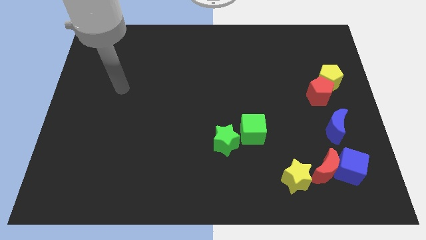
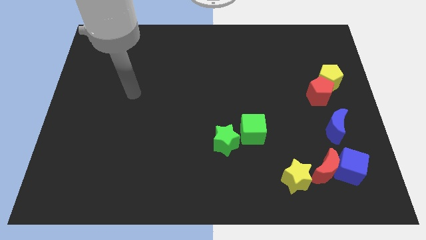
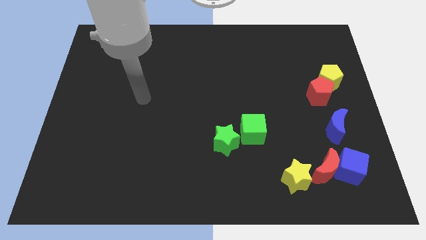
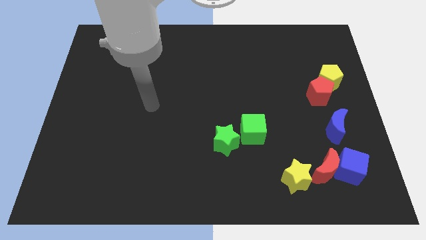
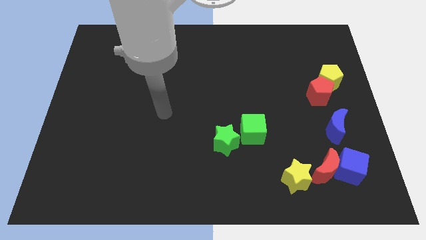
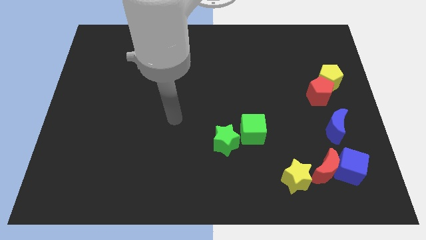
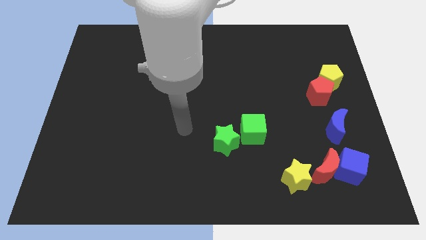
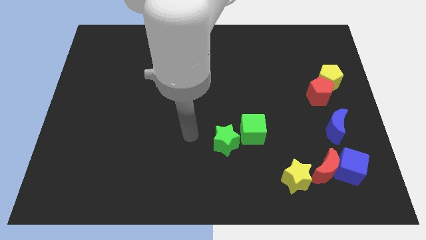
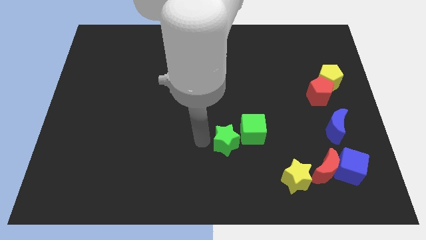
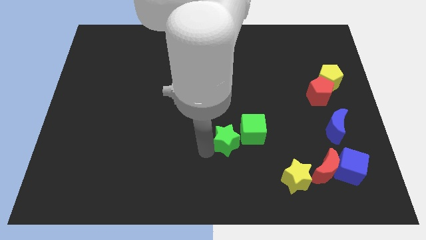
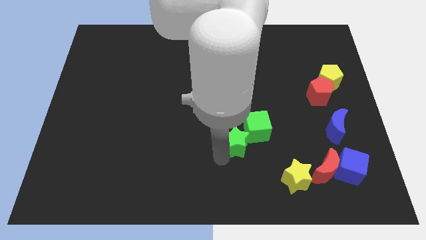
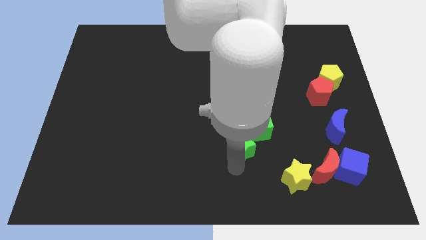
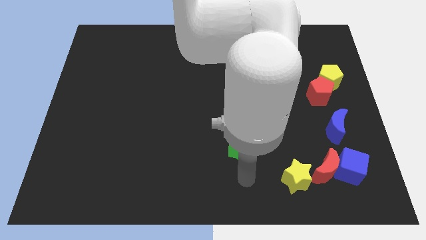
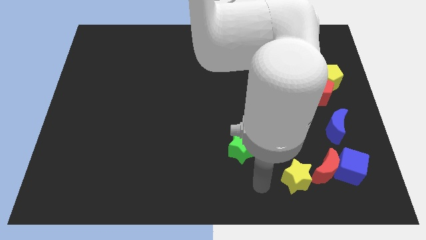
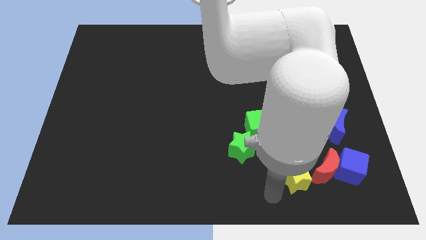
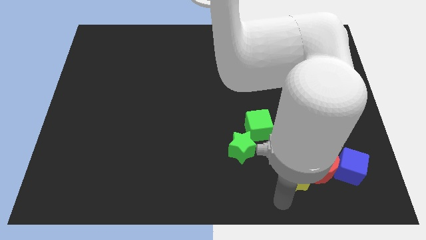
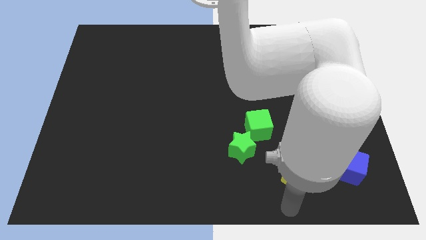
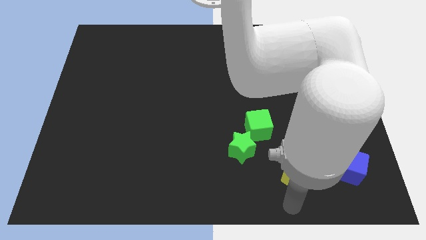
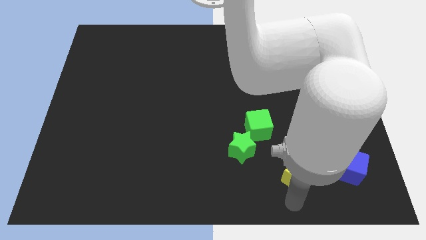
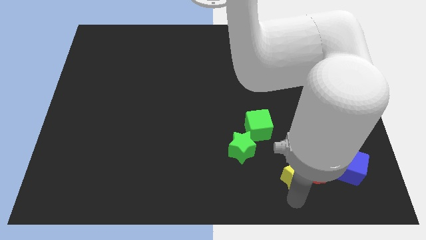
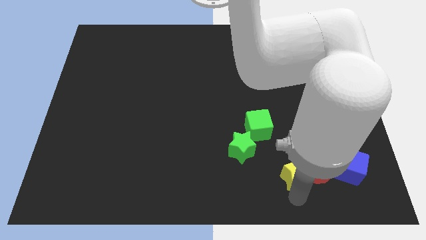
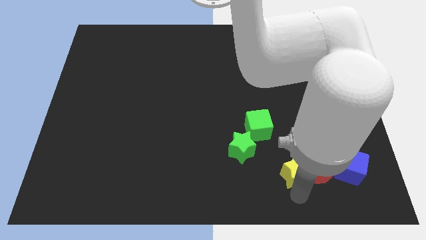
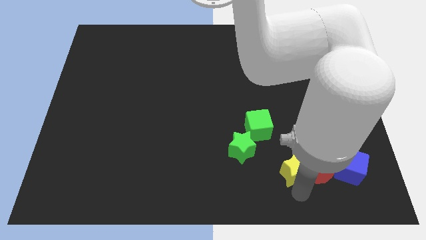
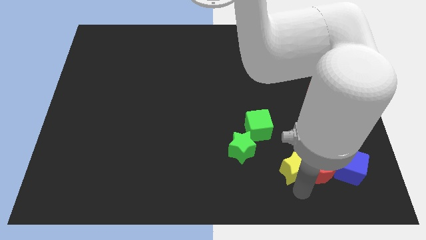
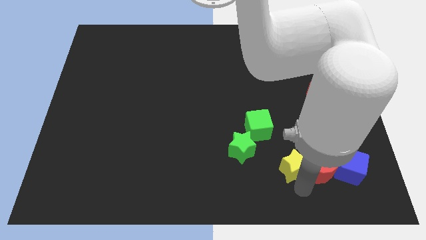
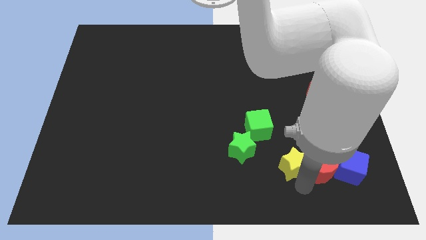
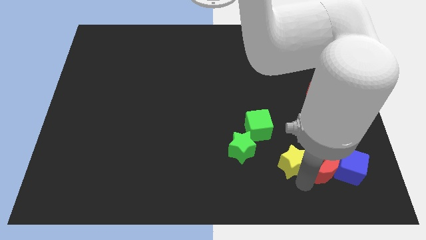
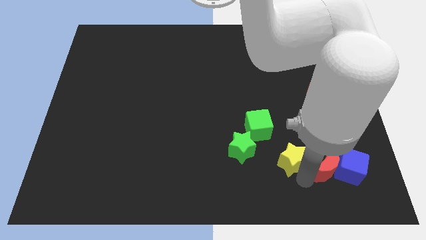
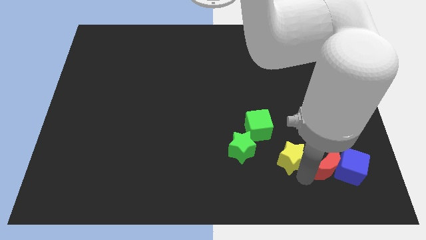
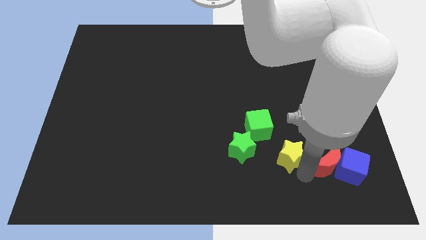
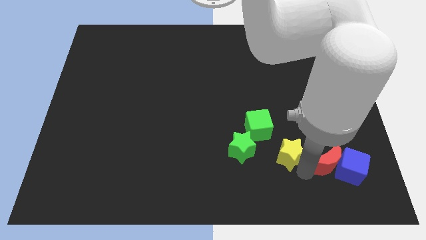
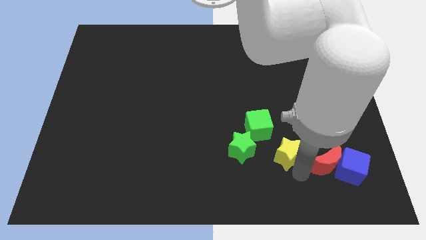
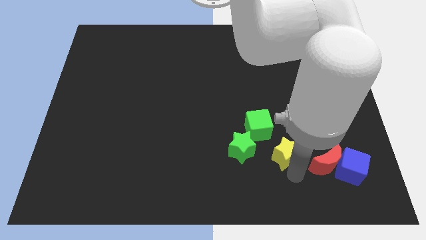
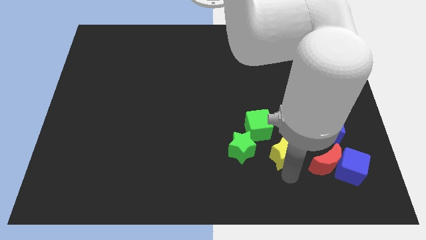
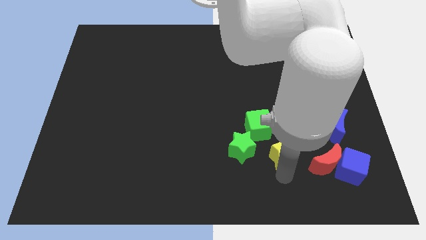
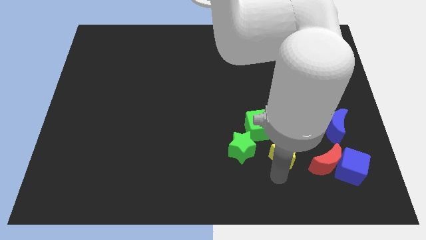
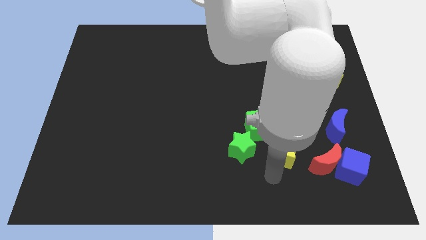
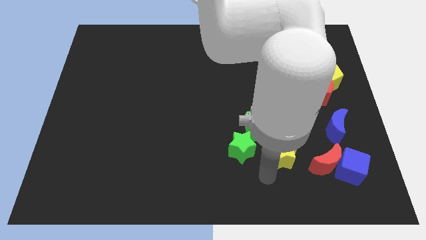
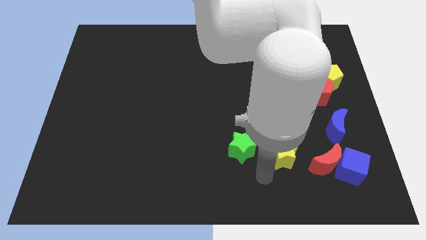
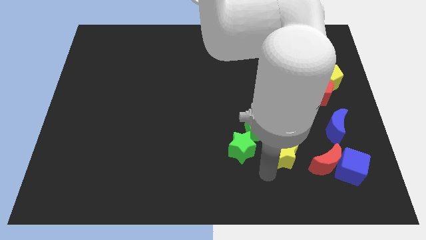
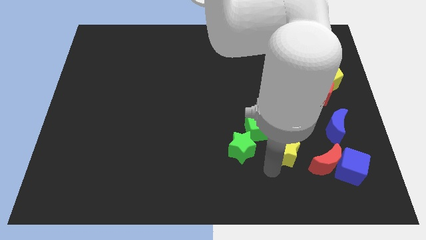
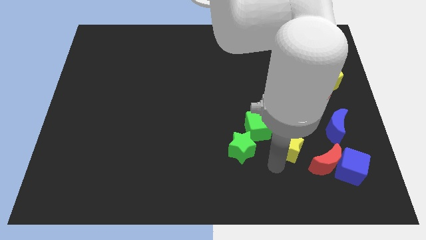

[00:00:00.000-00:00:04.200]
slide the yellow star up a bit

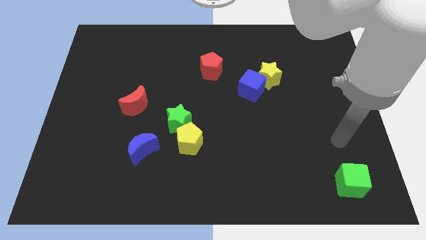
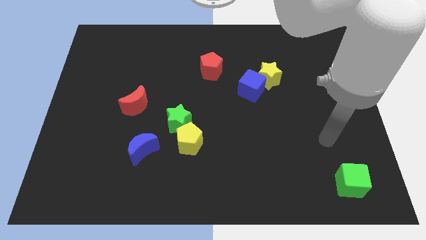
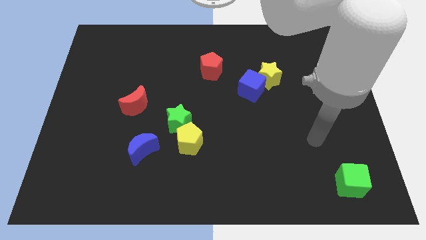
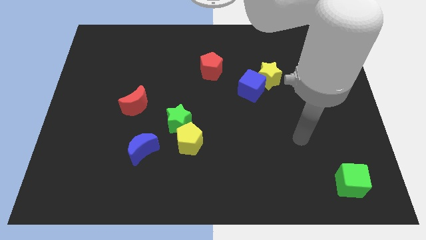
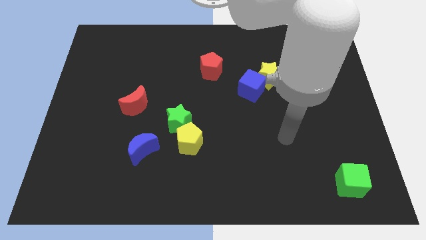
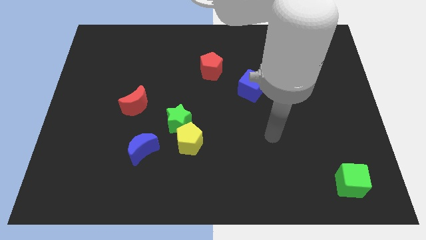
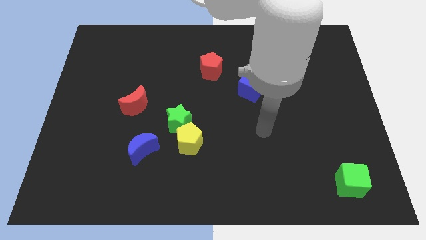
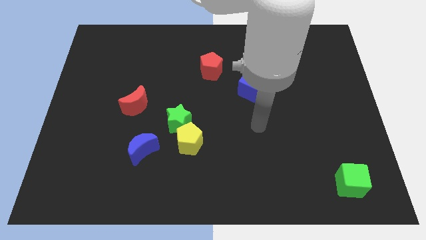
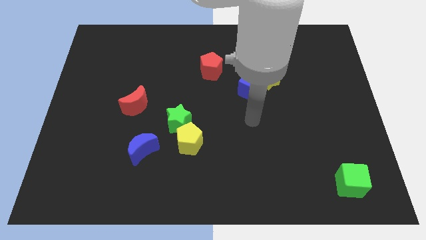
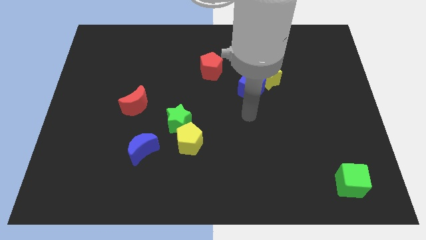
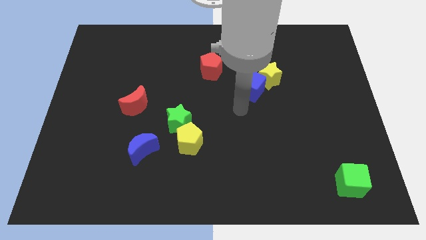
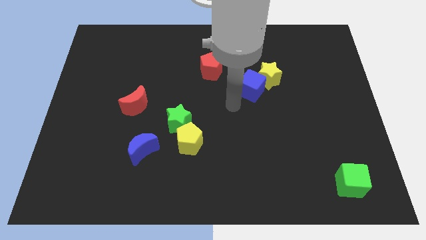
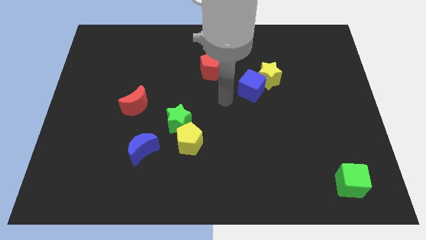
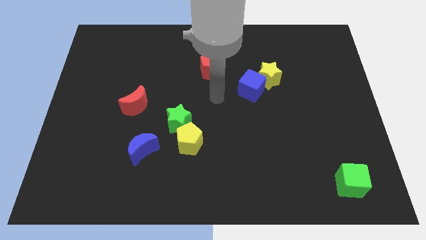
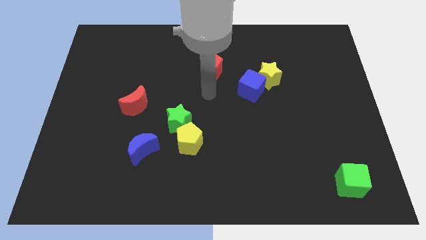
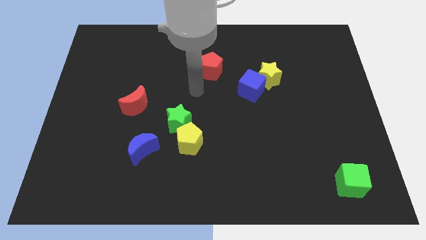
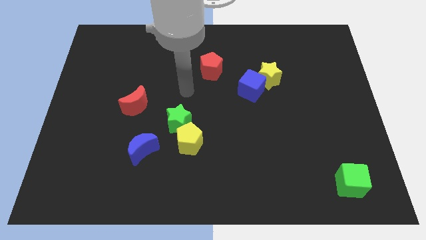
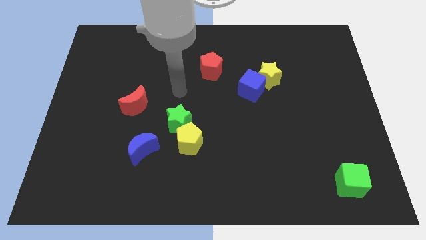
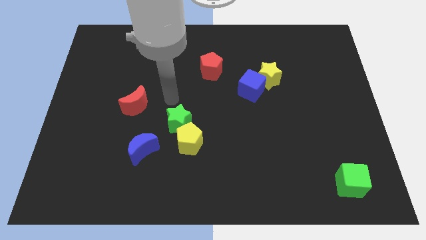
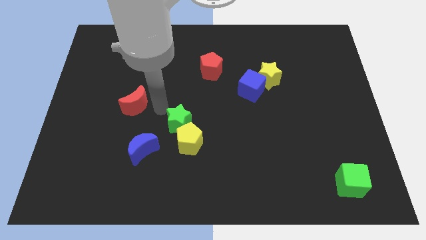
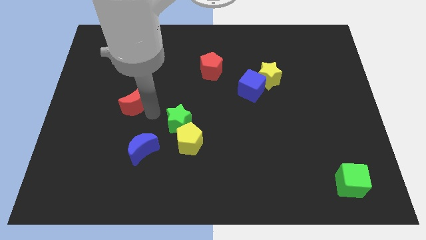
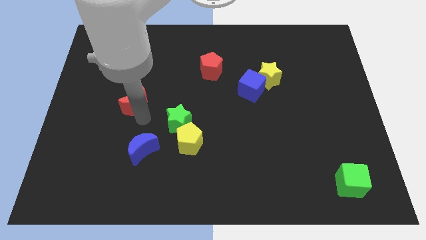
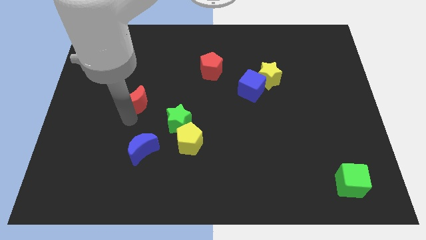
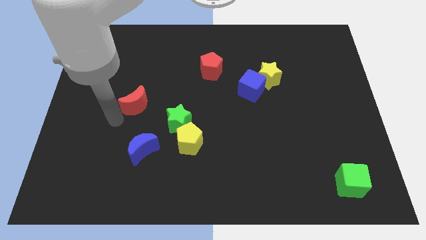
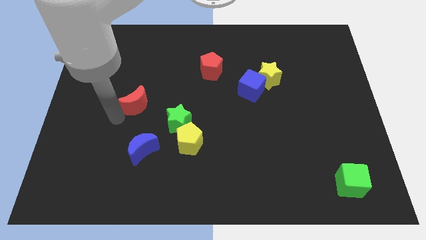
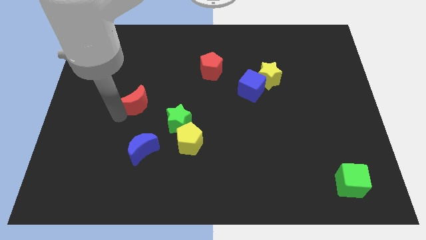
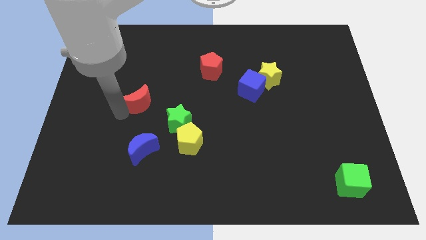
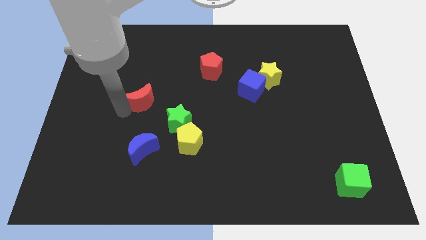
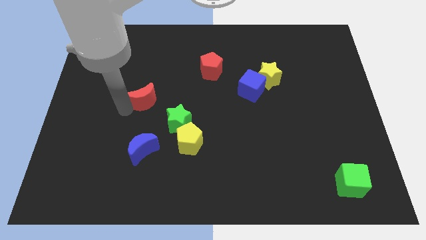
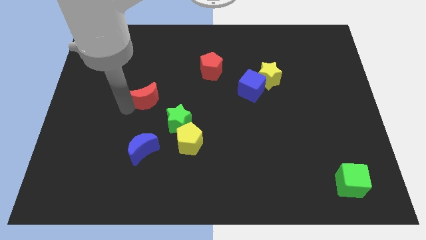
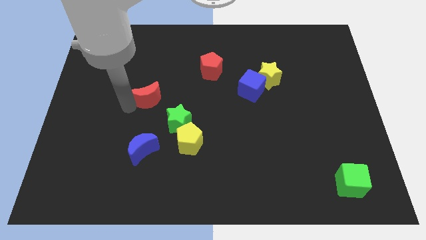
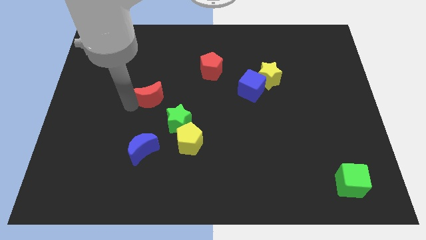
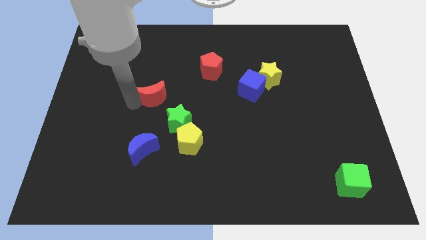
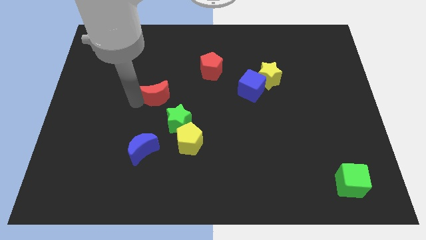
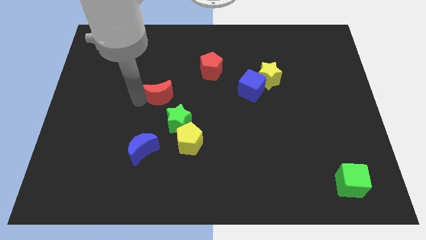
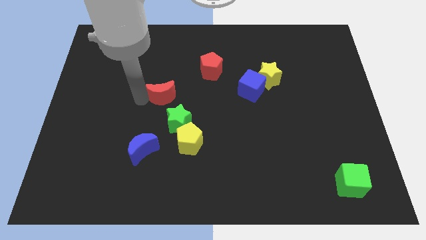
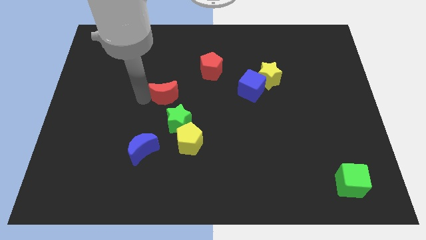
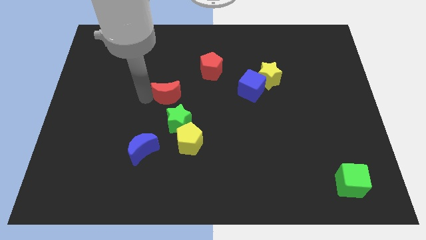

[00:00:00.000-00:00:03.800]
slightly slide the red moon up and to the right diagonally
